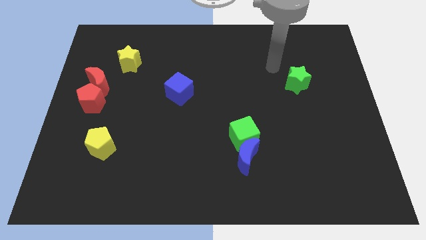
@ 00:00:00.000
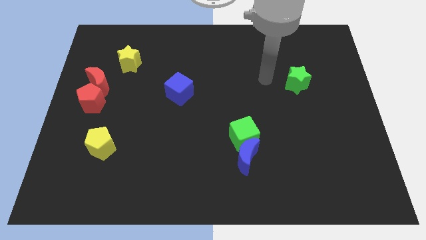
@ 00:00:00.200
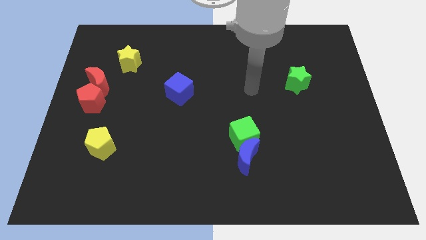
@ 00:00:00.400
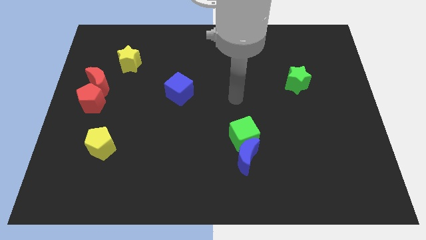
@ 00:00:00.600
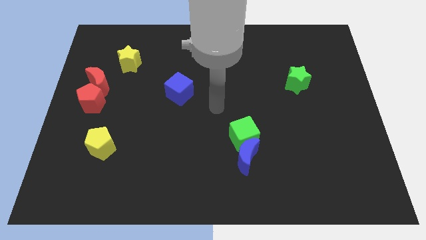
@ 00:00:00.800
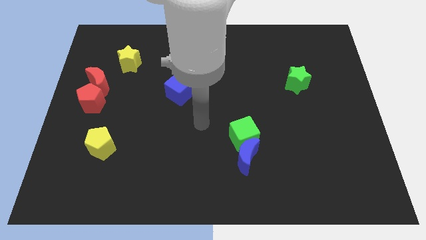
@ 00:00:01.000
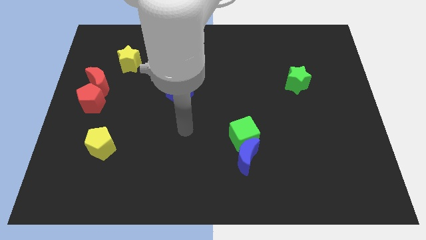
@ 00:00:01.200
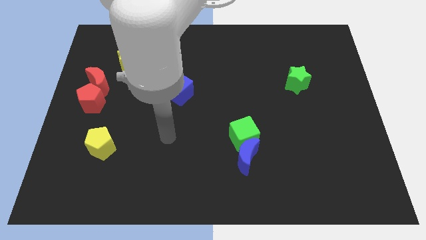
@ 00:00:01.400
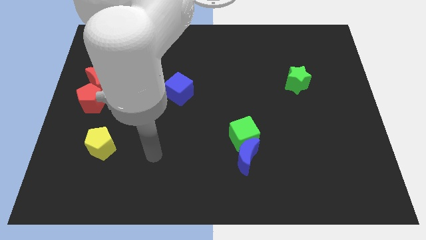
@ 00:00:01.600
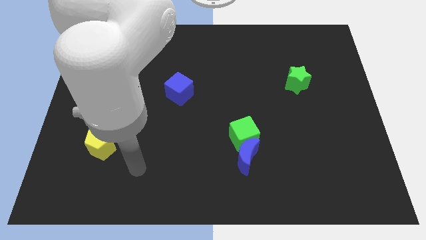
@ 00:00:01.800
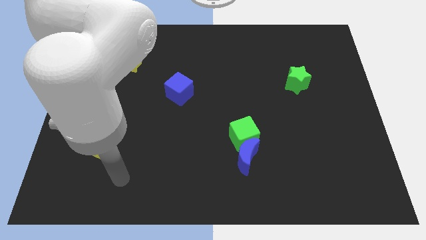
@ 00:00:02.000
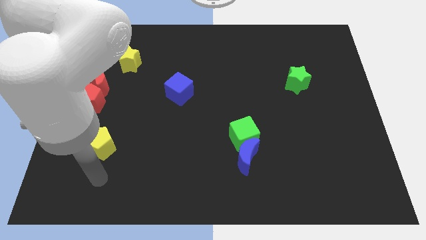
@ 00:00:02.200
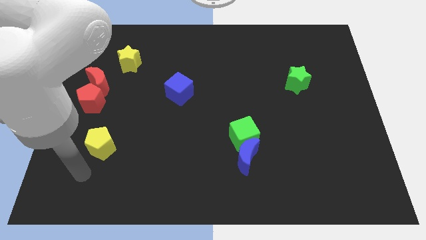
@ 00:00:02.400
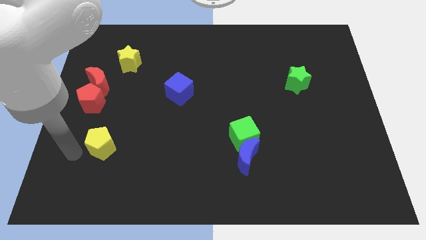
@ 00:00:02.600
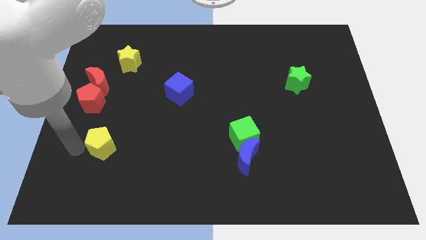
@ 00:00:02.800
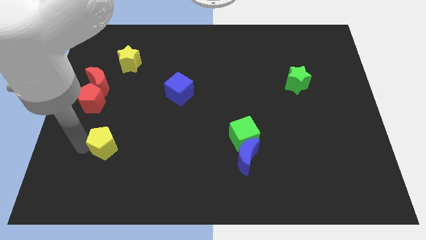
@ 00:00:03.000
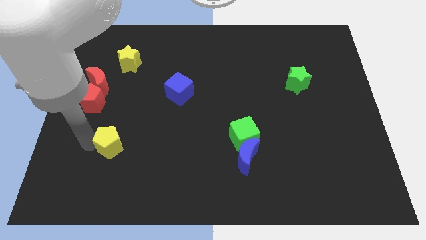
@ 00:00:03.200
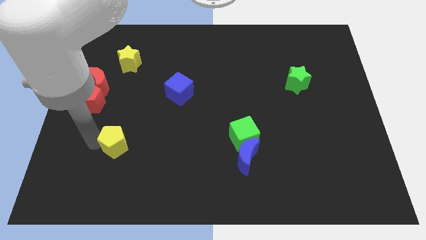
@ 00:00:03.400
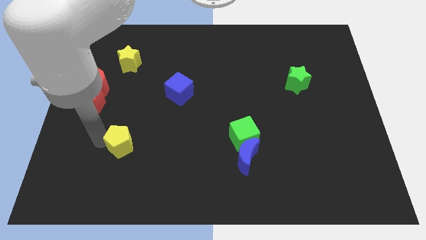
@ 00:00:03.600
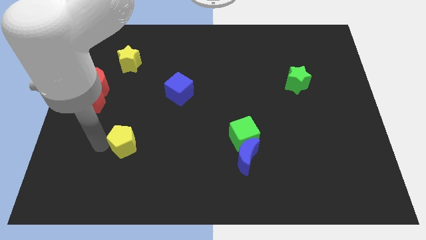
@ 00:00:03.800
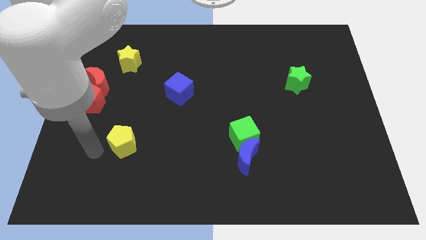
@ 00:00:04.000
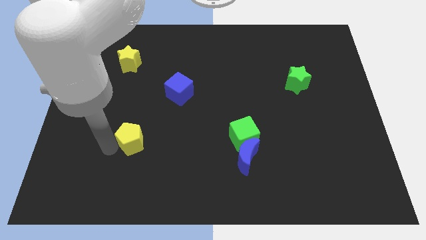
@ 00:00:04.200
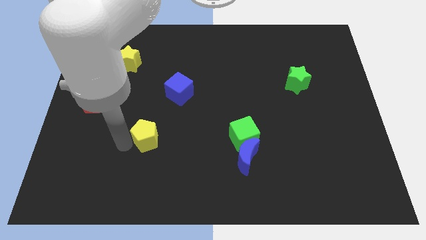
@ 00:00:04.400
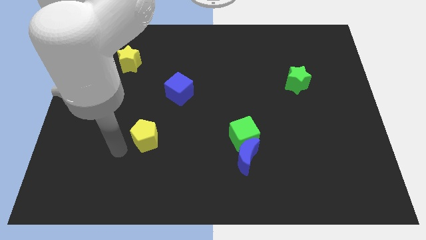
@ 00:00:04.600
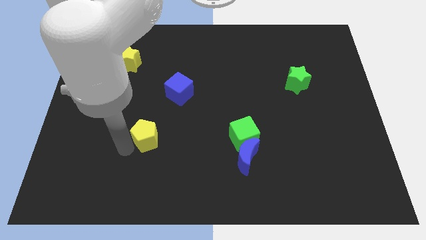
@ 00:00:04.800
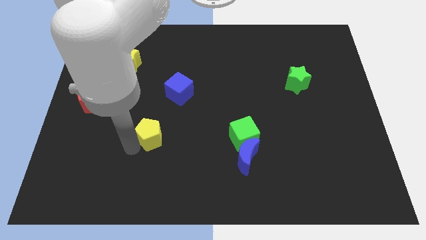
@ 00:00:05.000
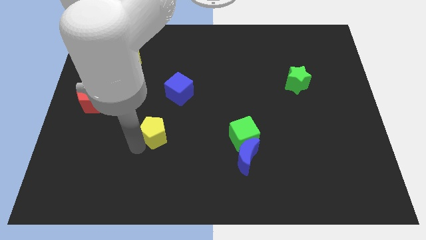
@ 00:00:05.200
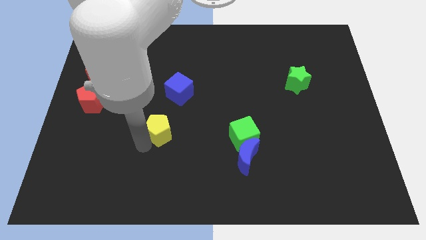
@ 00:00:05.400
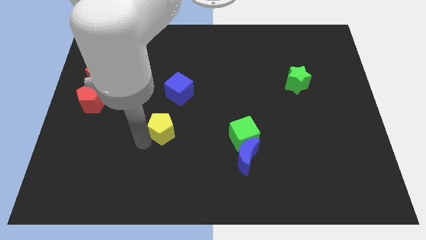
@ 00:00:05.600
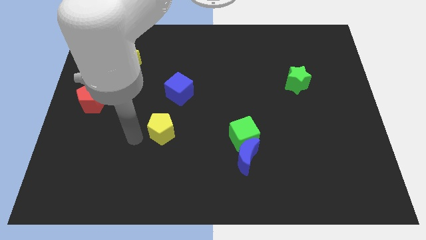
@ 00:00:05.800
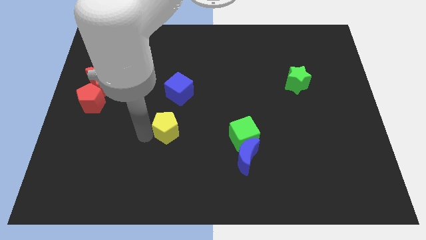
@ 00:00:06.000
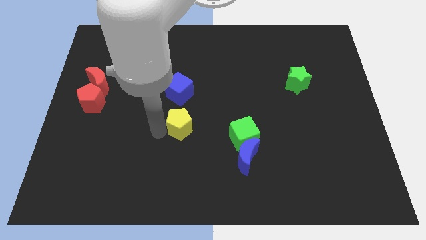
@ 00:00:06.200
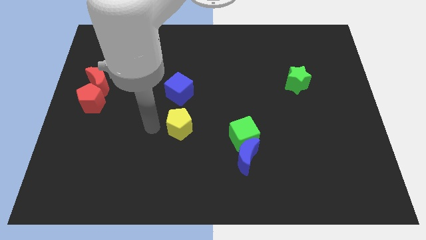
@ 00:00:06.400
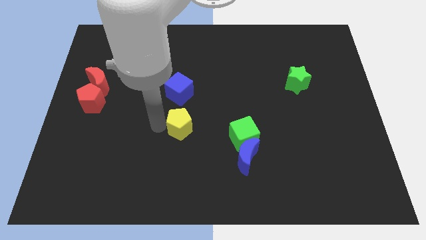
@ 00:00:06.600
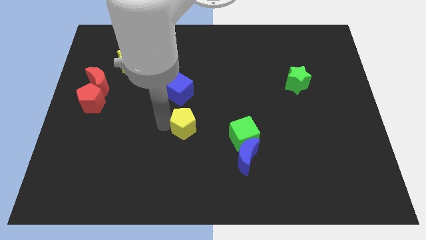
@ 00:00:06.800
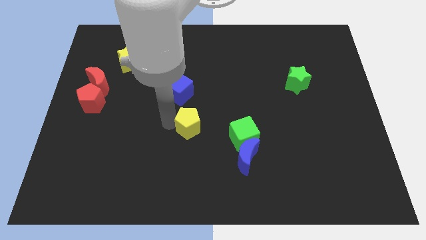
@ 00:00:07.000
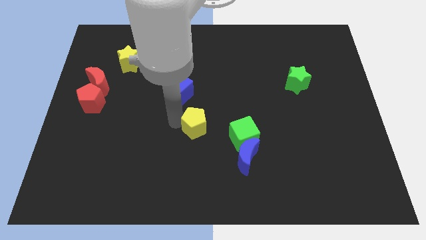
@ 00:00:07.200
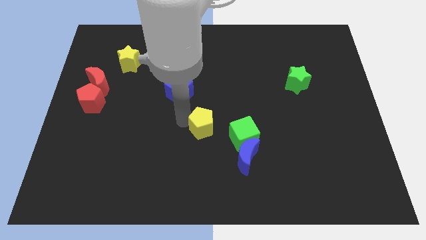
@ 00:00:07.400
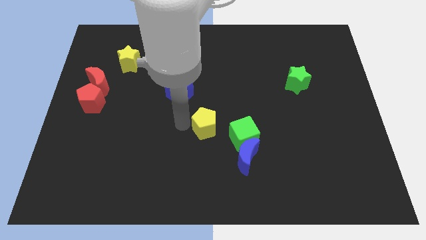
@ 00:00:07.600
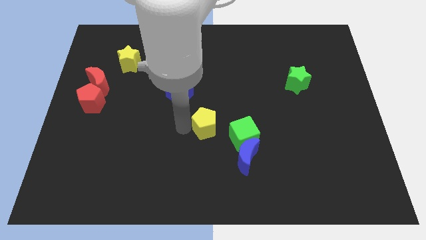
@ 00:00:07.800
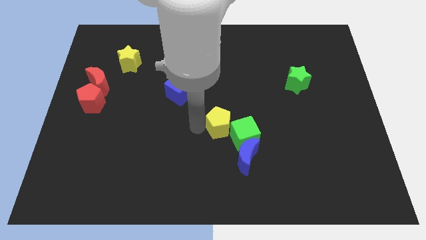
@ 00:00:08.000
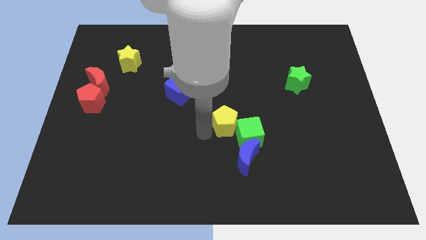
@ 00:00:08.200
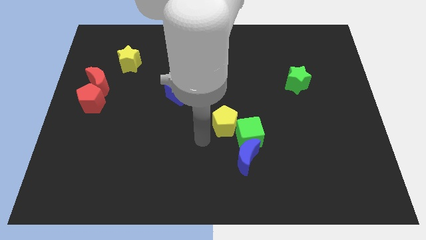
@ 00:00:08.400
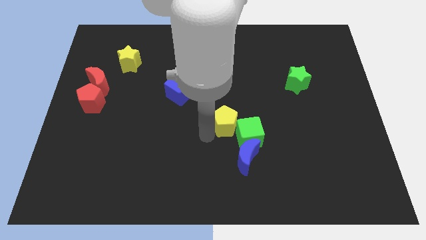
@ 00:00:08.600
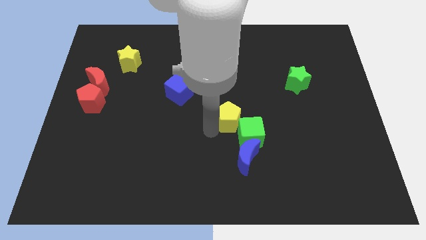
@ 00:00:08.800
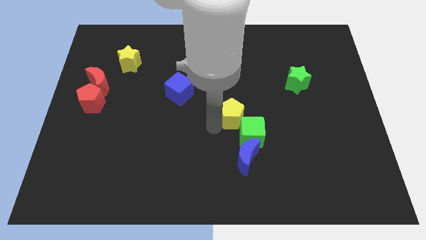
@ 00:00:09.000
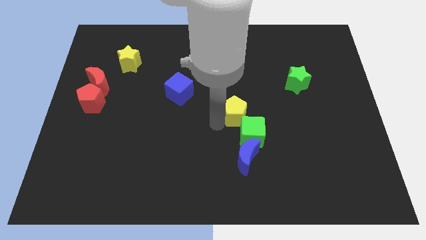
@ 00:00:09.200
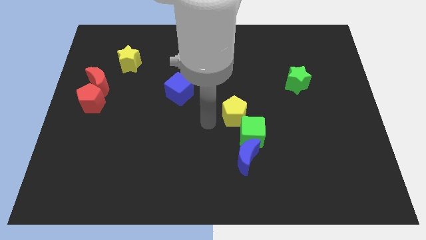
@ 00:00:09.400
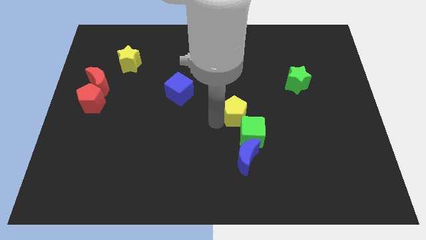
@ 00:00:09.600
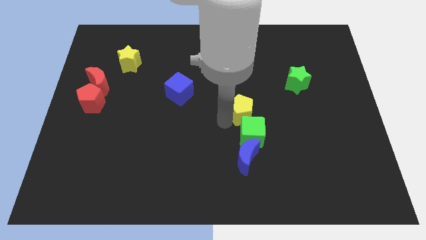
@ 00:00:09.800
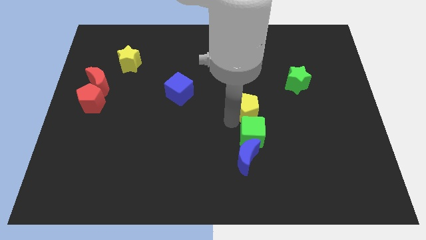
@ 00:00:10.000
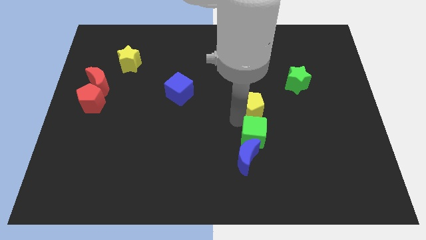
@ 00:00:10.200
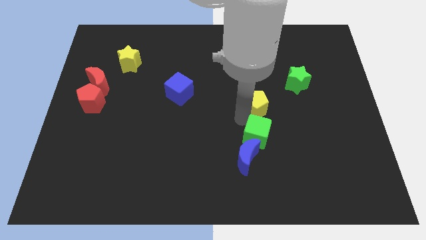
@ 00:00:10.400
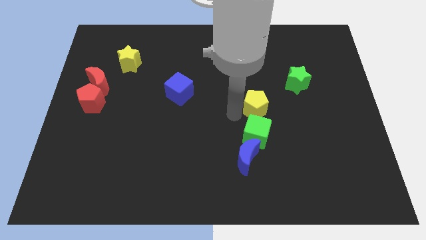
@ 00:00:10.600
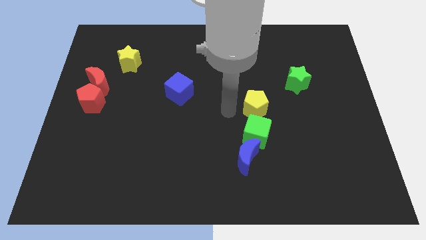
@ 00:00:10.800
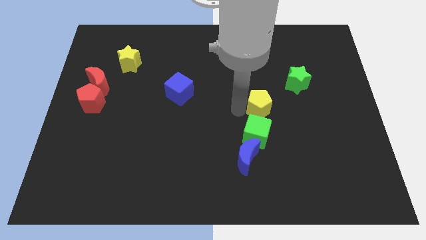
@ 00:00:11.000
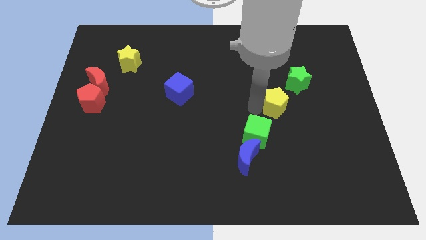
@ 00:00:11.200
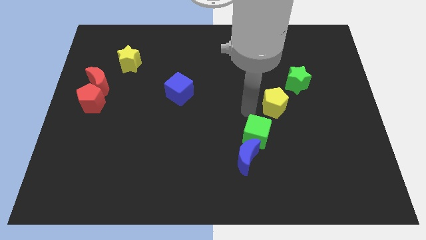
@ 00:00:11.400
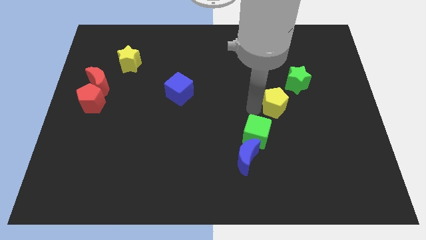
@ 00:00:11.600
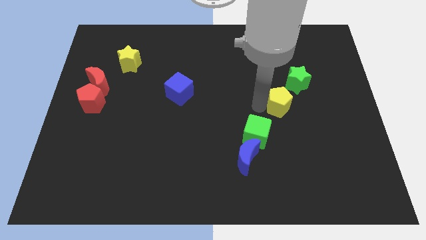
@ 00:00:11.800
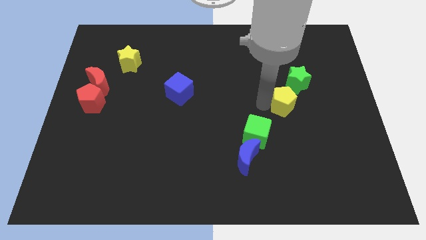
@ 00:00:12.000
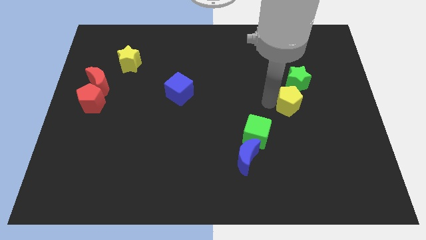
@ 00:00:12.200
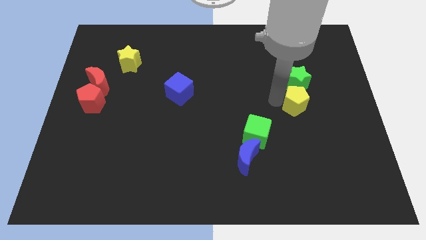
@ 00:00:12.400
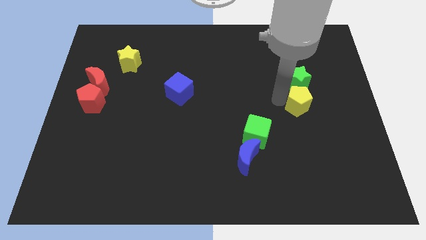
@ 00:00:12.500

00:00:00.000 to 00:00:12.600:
push the yellow pentagon to the bottom right of the green star

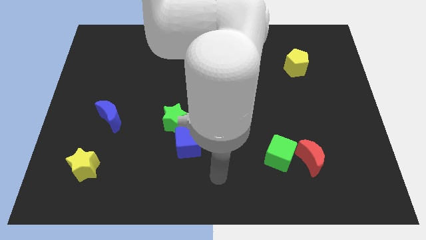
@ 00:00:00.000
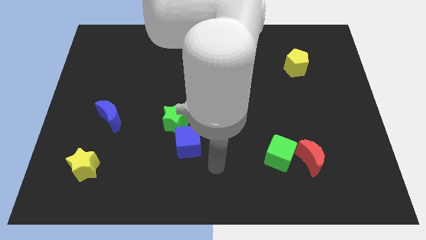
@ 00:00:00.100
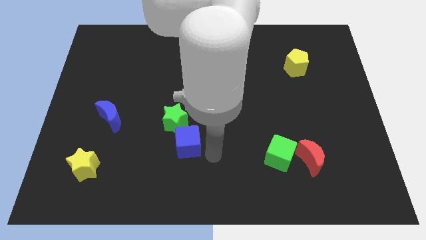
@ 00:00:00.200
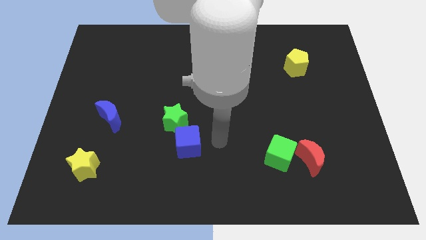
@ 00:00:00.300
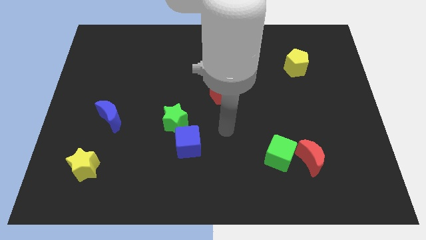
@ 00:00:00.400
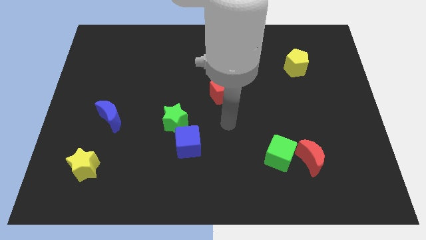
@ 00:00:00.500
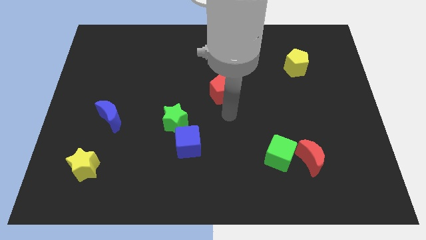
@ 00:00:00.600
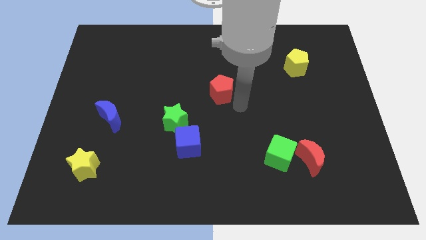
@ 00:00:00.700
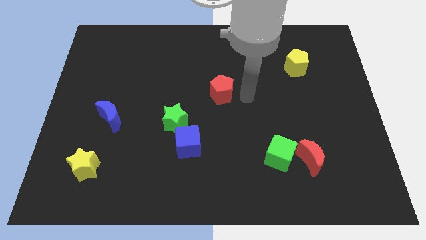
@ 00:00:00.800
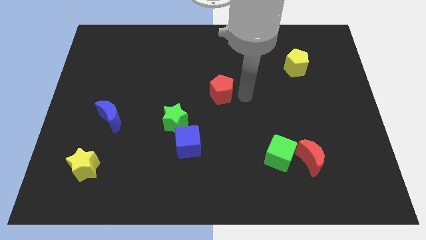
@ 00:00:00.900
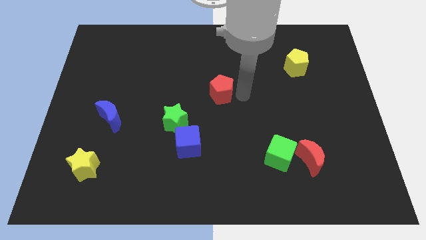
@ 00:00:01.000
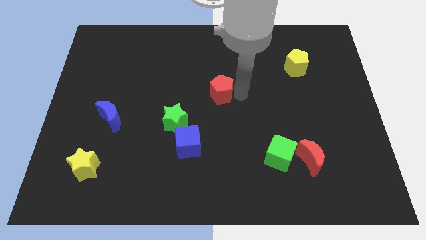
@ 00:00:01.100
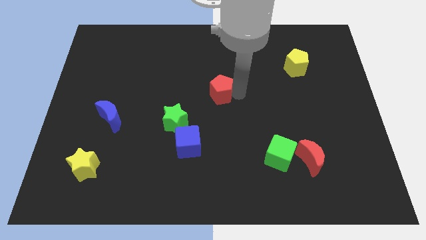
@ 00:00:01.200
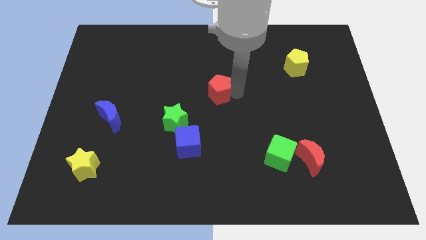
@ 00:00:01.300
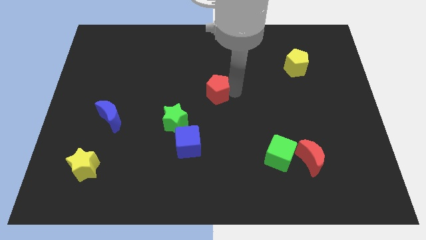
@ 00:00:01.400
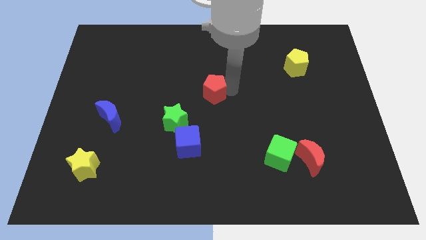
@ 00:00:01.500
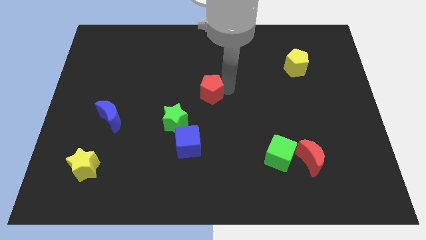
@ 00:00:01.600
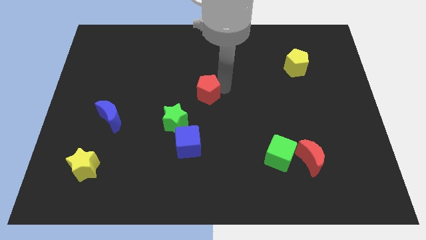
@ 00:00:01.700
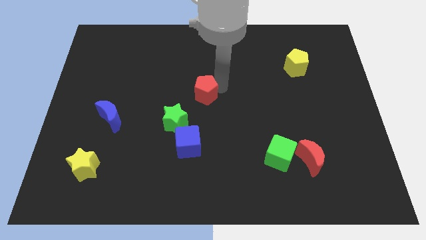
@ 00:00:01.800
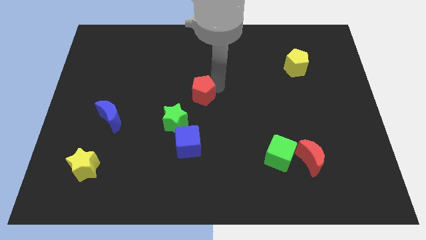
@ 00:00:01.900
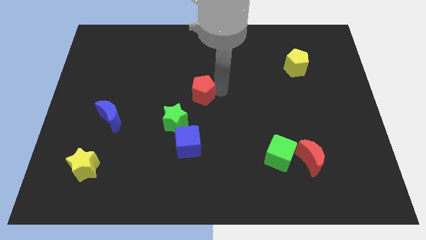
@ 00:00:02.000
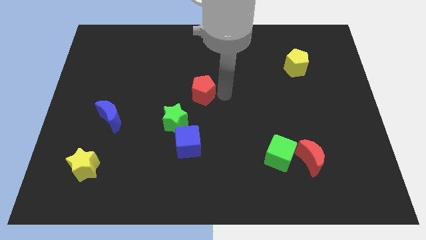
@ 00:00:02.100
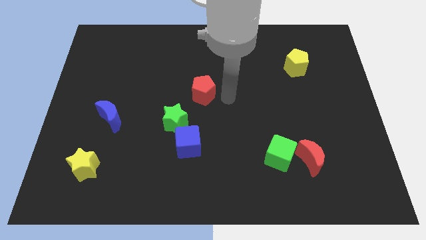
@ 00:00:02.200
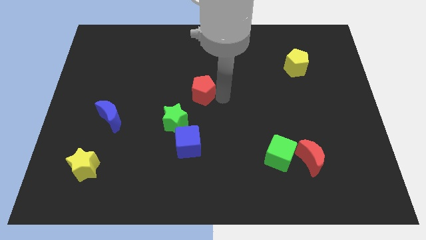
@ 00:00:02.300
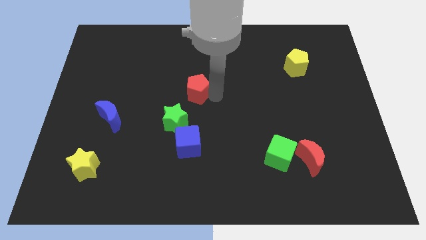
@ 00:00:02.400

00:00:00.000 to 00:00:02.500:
move the red pentagon above the green star
